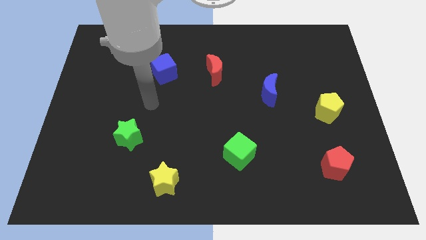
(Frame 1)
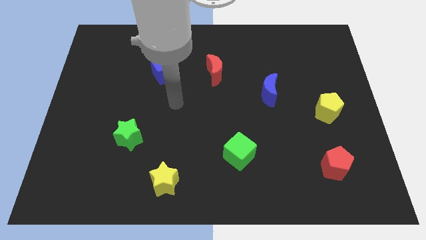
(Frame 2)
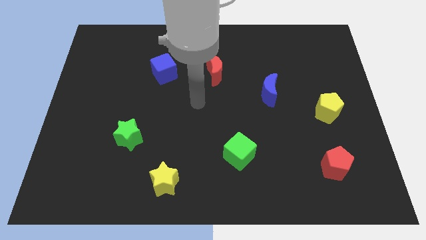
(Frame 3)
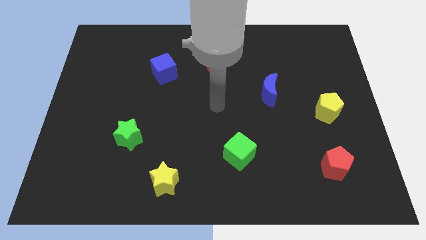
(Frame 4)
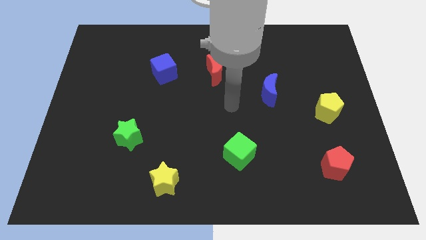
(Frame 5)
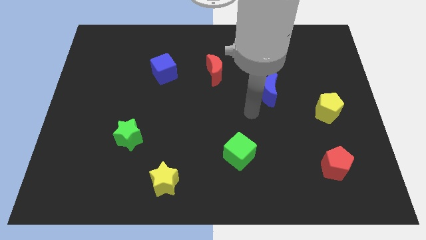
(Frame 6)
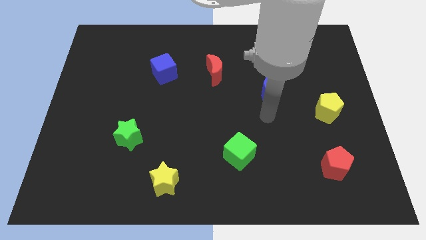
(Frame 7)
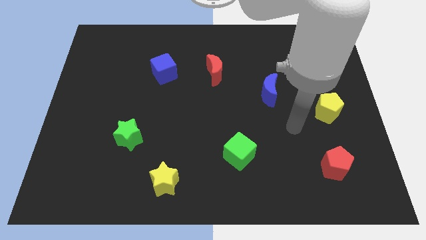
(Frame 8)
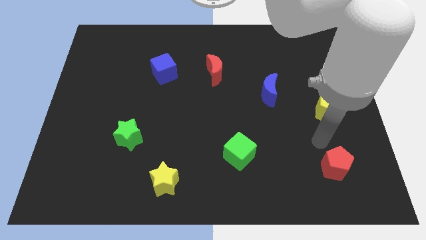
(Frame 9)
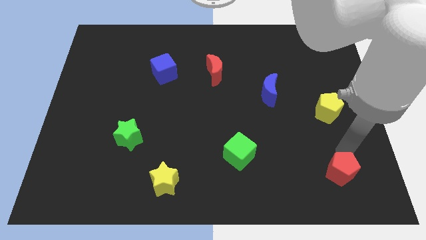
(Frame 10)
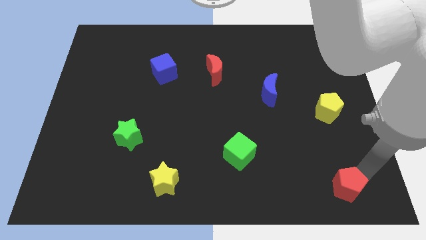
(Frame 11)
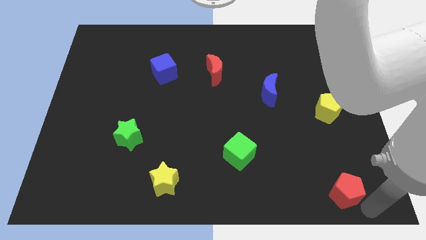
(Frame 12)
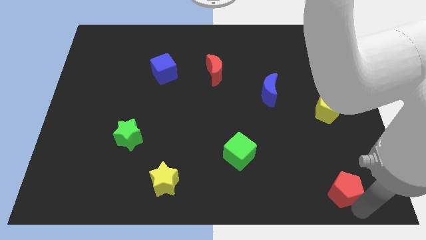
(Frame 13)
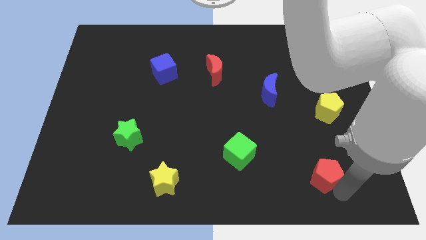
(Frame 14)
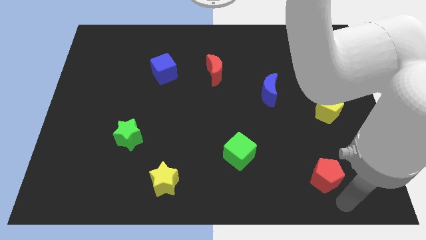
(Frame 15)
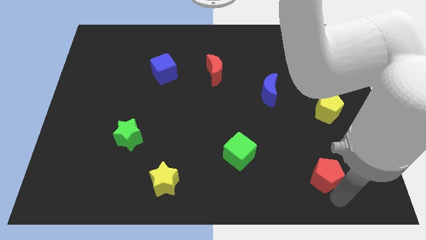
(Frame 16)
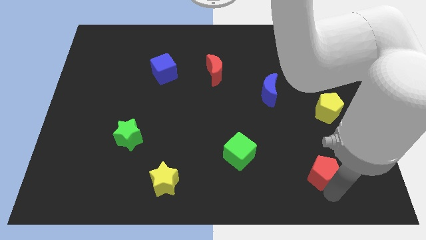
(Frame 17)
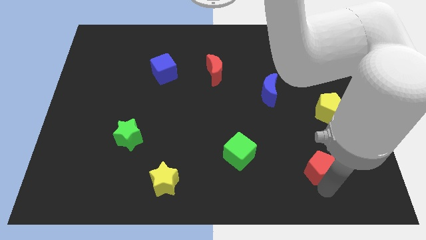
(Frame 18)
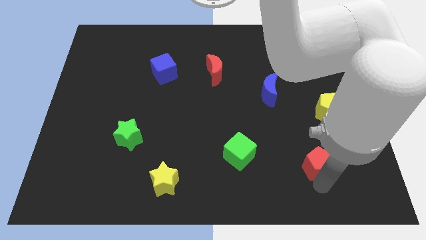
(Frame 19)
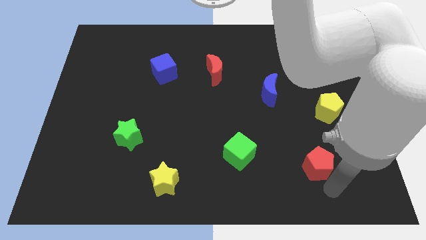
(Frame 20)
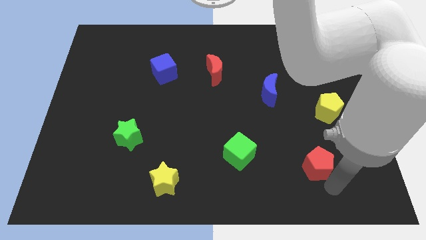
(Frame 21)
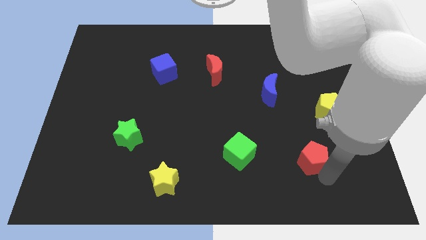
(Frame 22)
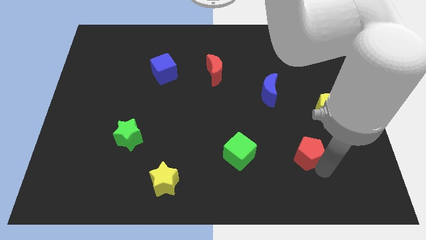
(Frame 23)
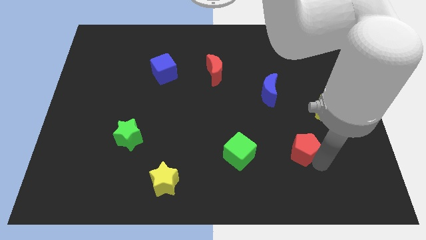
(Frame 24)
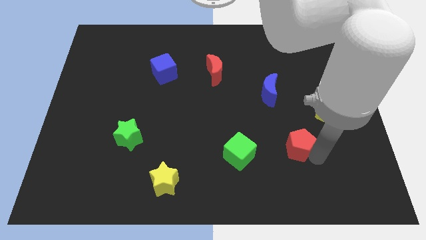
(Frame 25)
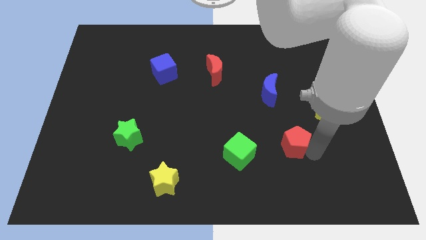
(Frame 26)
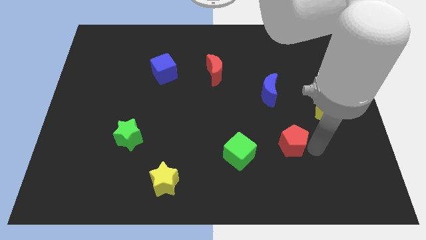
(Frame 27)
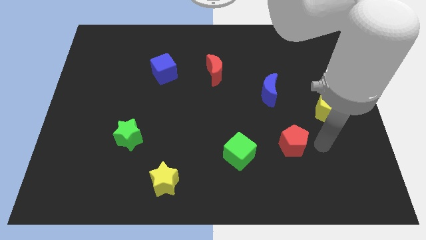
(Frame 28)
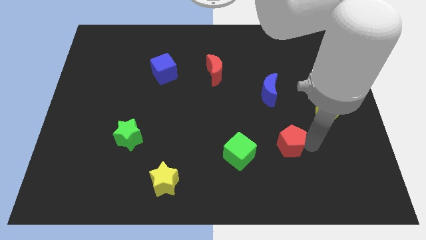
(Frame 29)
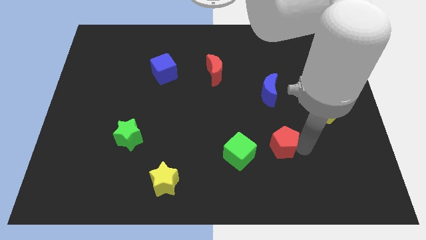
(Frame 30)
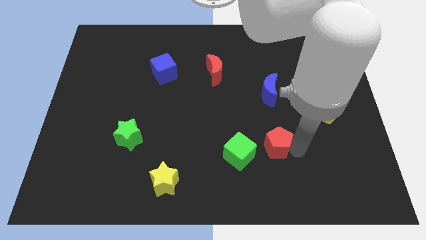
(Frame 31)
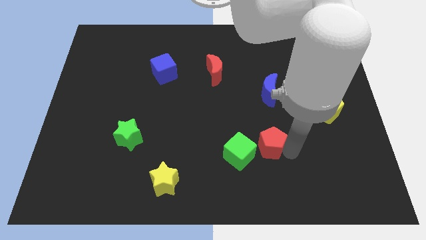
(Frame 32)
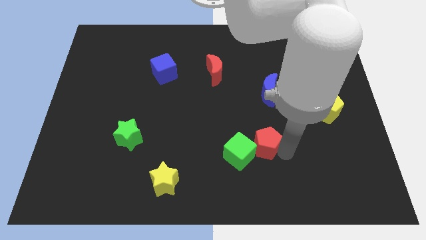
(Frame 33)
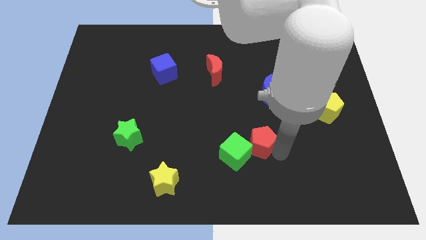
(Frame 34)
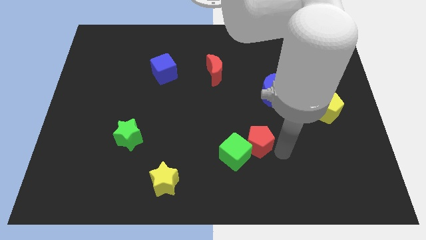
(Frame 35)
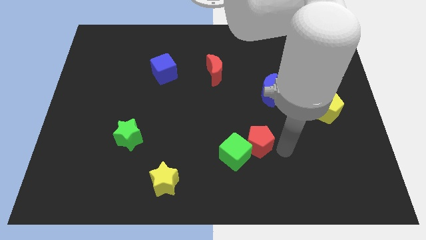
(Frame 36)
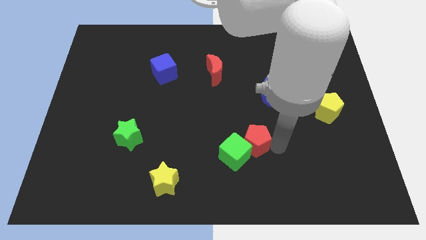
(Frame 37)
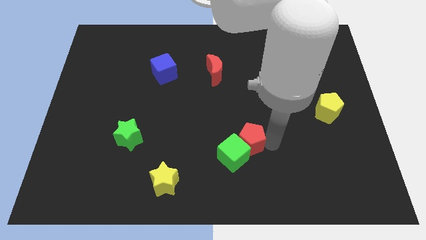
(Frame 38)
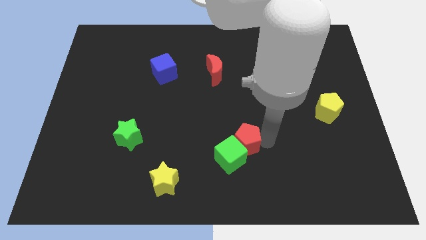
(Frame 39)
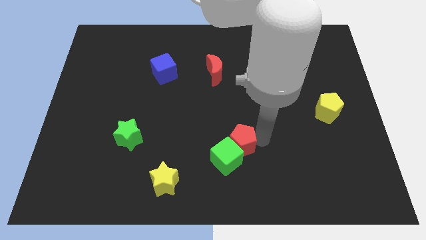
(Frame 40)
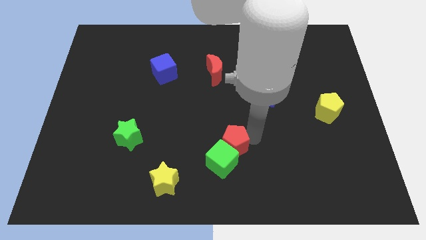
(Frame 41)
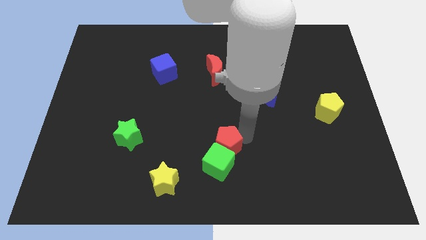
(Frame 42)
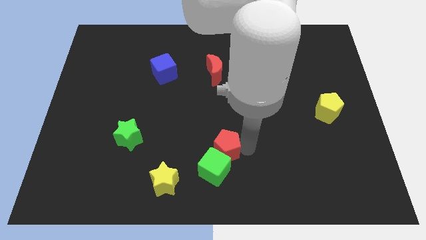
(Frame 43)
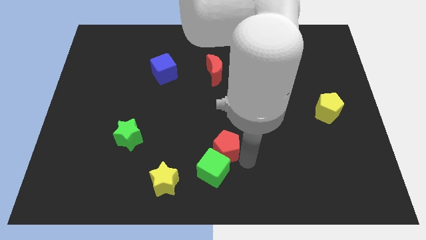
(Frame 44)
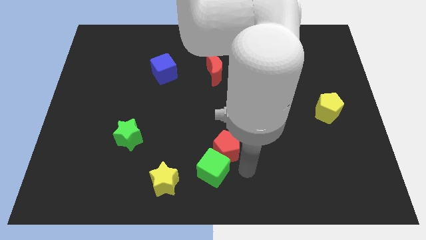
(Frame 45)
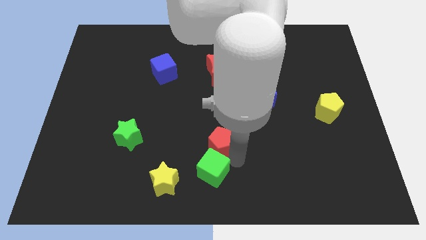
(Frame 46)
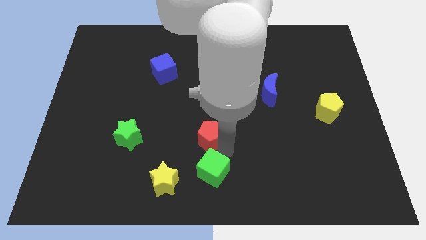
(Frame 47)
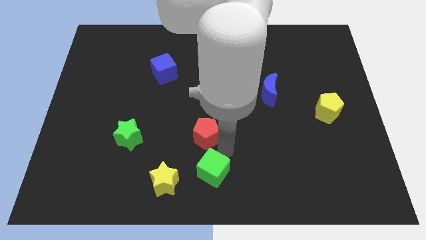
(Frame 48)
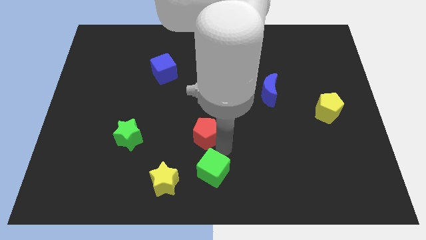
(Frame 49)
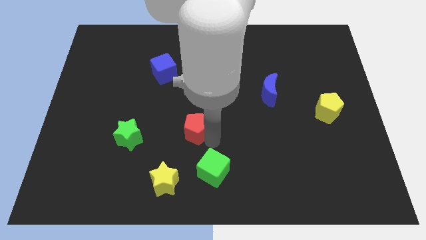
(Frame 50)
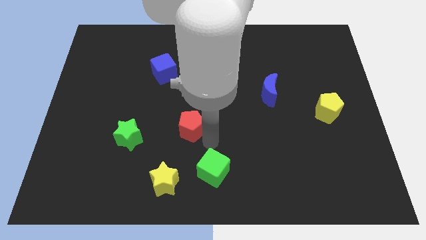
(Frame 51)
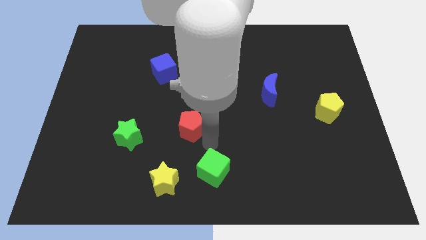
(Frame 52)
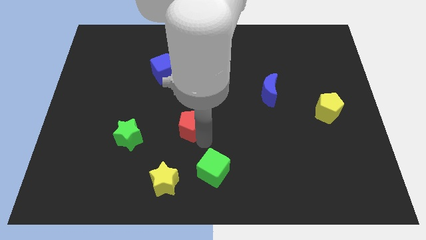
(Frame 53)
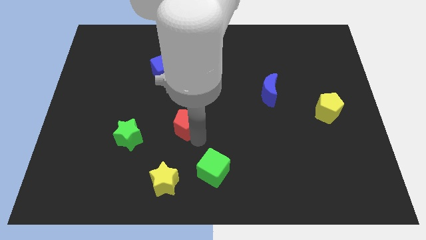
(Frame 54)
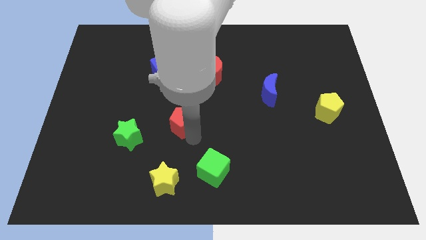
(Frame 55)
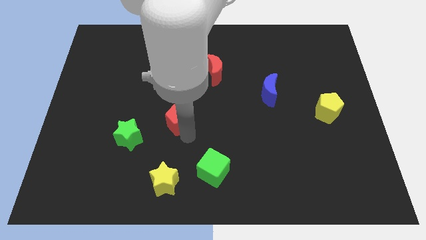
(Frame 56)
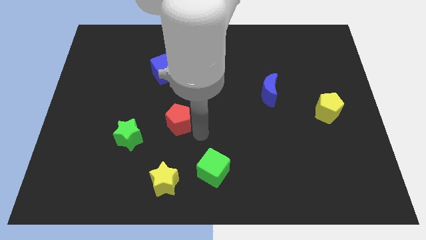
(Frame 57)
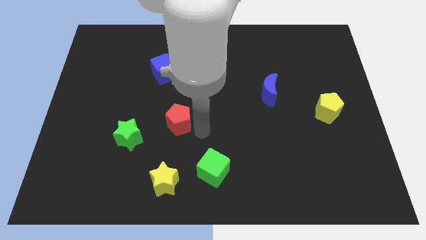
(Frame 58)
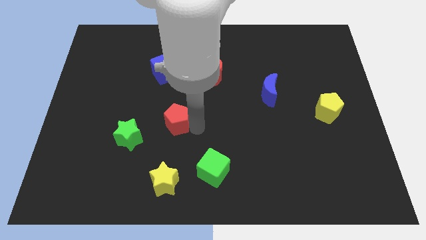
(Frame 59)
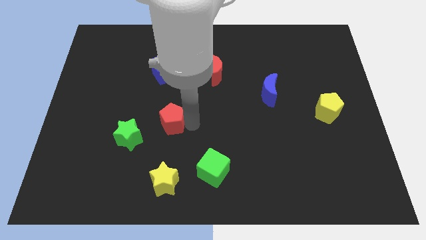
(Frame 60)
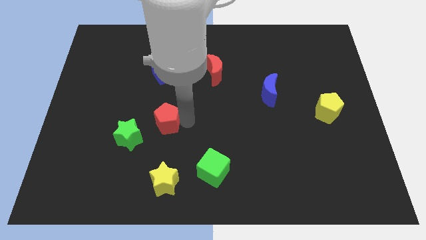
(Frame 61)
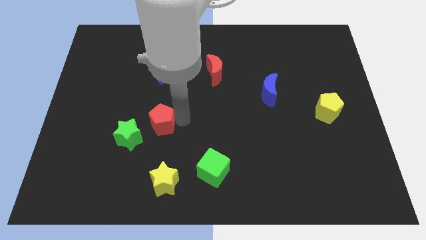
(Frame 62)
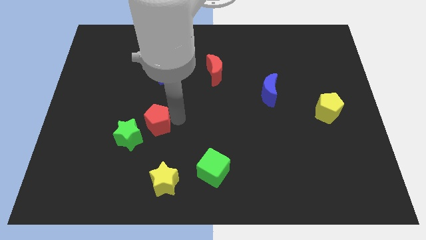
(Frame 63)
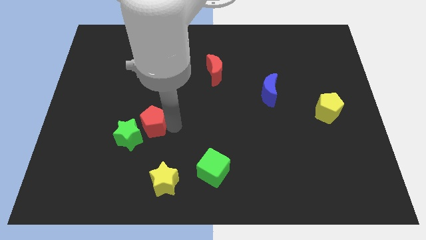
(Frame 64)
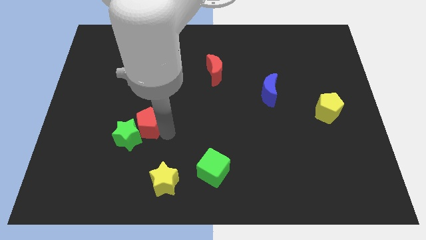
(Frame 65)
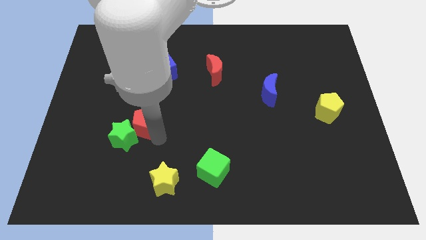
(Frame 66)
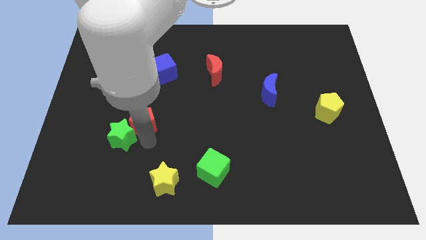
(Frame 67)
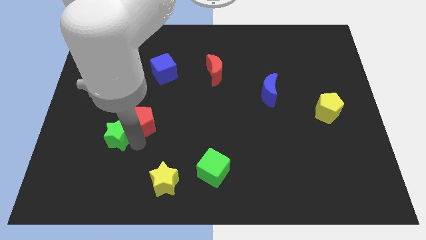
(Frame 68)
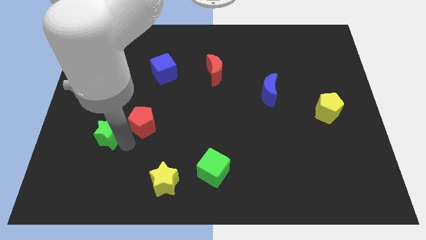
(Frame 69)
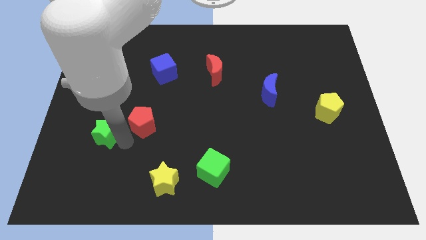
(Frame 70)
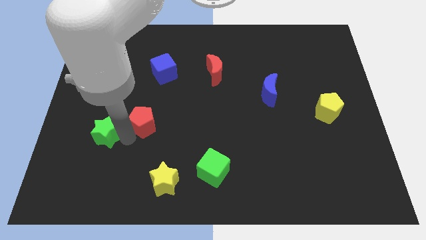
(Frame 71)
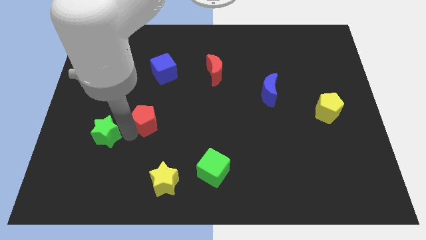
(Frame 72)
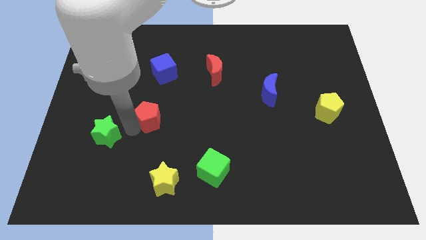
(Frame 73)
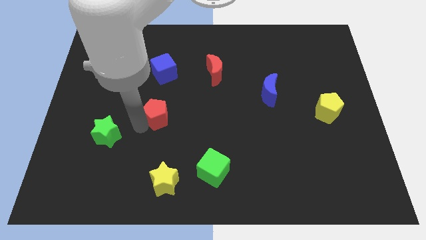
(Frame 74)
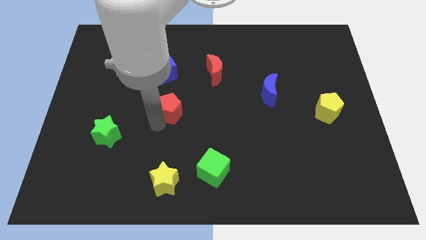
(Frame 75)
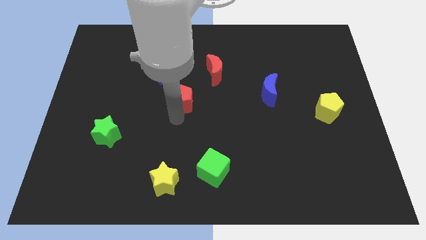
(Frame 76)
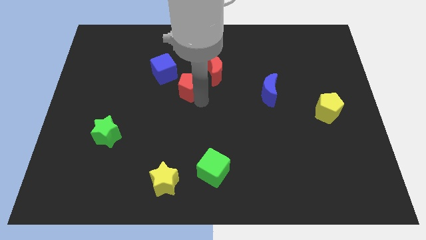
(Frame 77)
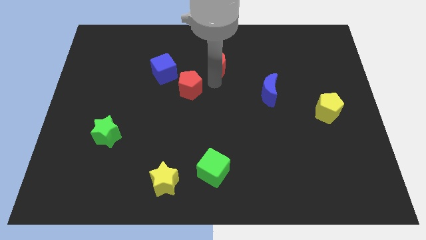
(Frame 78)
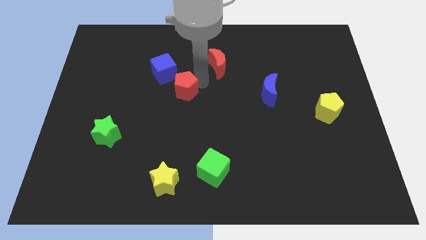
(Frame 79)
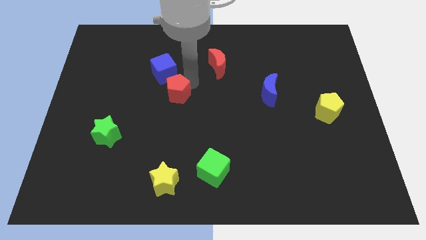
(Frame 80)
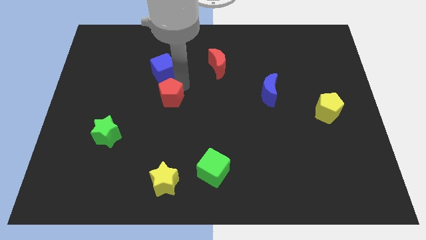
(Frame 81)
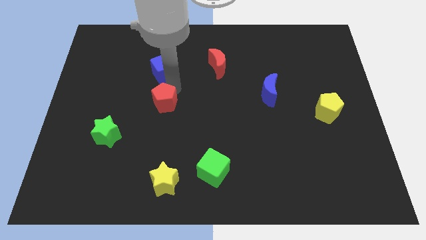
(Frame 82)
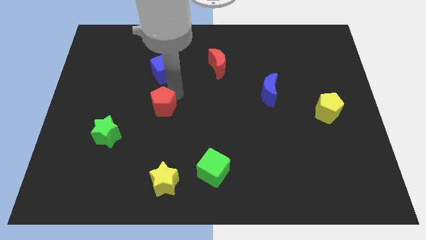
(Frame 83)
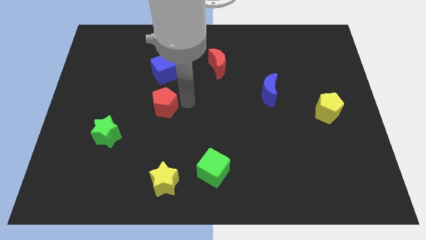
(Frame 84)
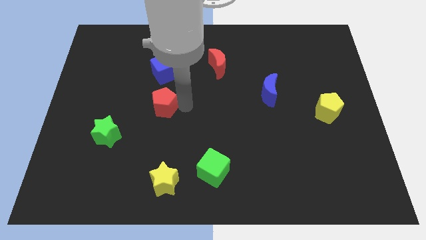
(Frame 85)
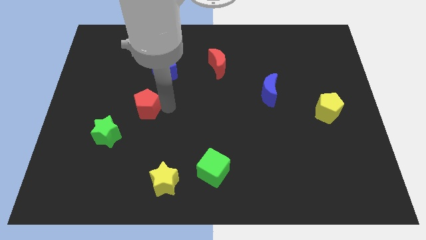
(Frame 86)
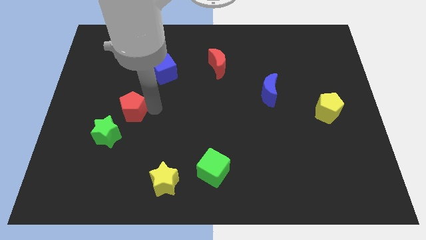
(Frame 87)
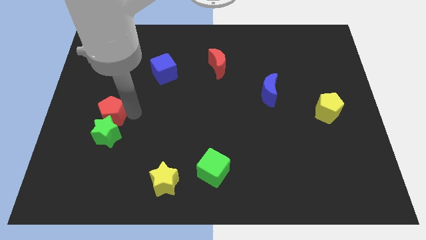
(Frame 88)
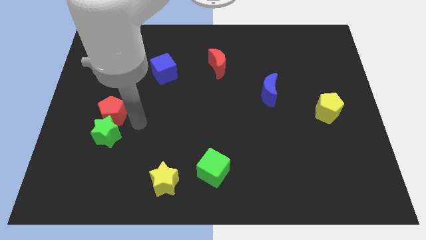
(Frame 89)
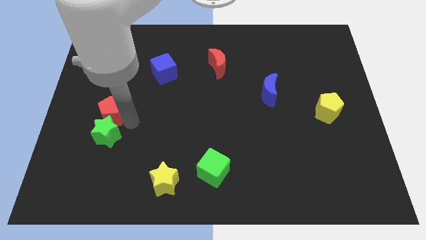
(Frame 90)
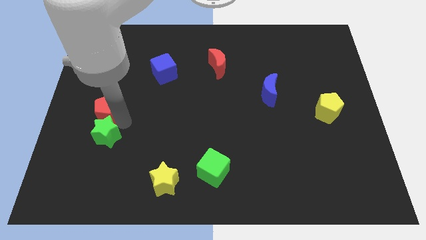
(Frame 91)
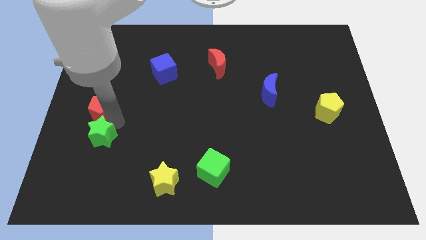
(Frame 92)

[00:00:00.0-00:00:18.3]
push the red pentagon to the left side
